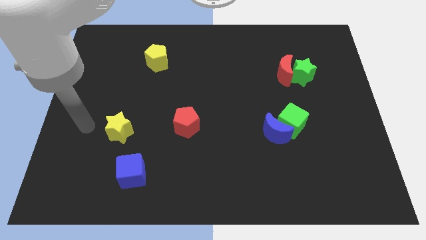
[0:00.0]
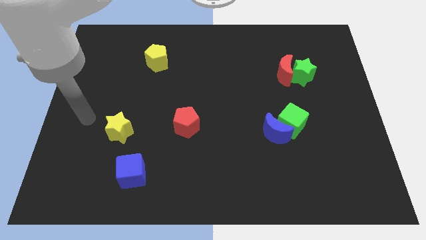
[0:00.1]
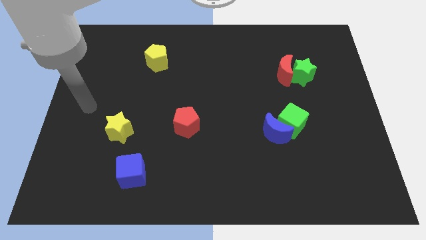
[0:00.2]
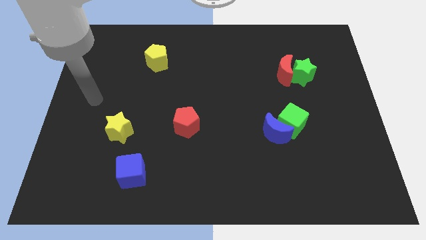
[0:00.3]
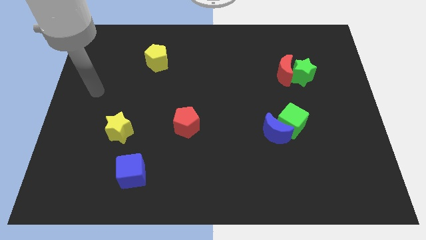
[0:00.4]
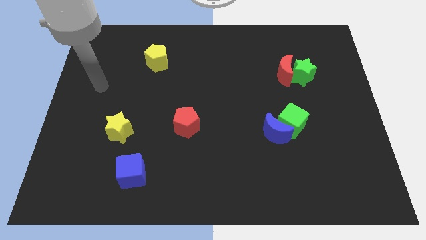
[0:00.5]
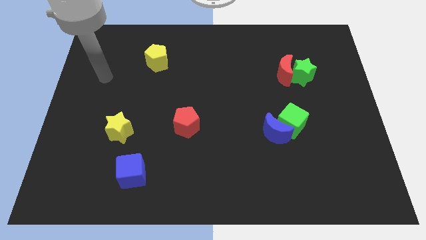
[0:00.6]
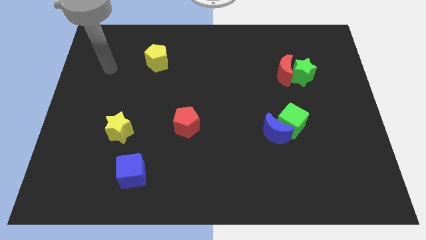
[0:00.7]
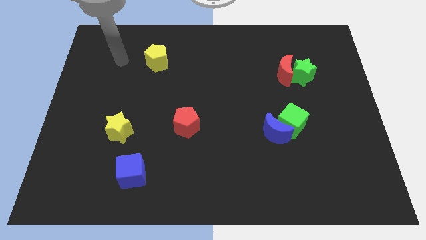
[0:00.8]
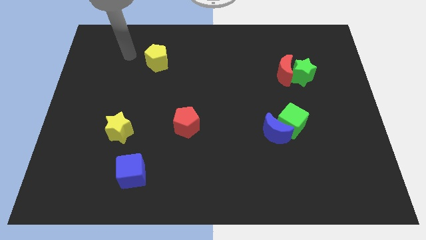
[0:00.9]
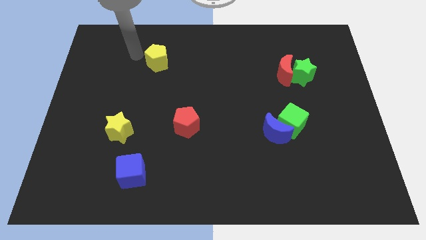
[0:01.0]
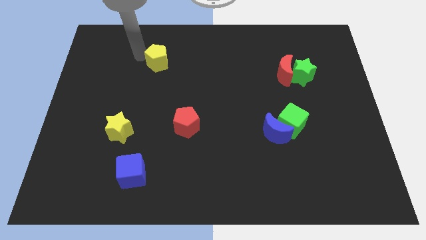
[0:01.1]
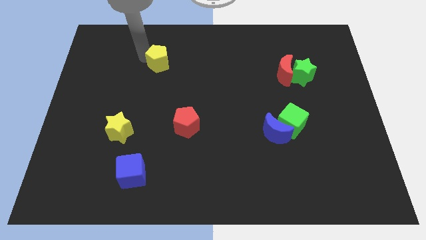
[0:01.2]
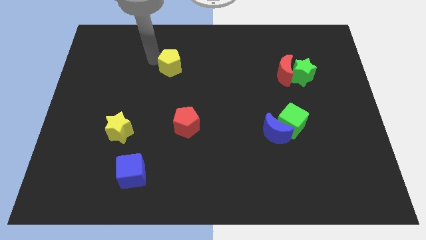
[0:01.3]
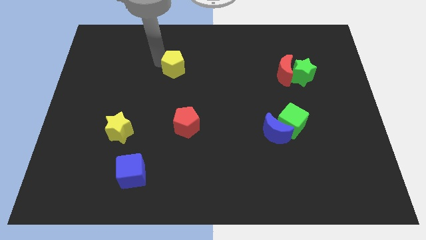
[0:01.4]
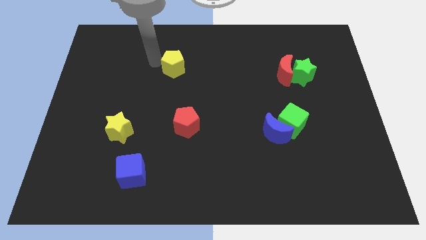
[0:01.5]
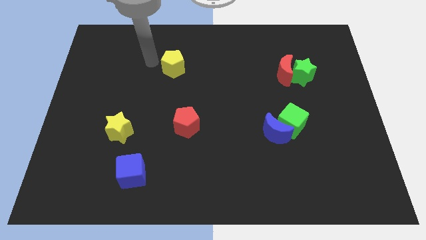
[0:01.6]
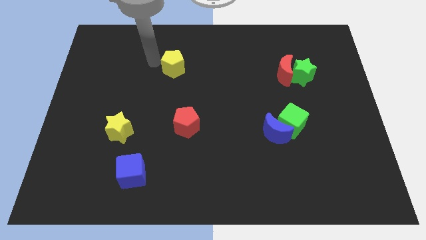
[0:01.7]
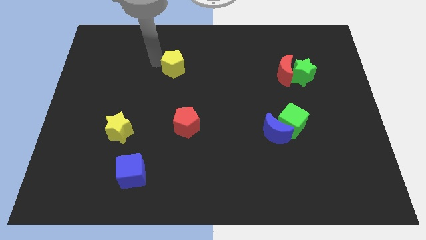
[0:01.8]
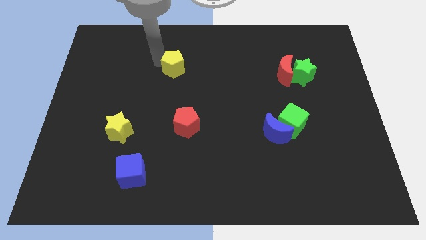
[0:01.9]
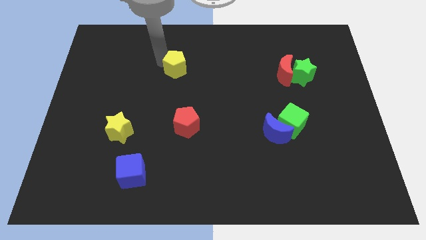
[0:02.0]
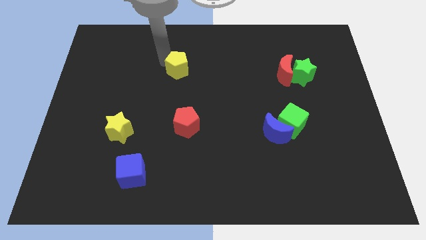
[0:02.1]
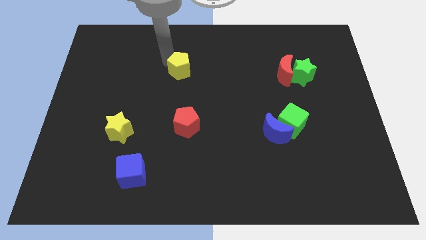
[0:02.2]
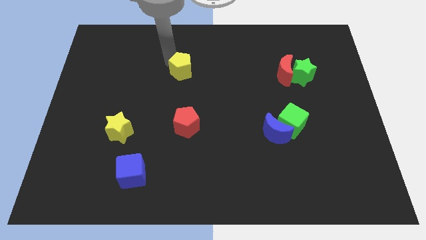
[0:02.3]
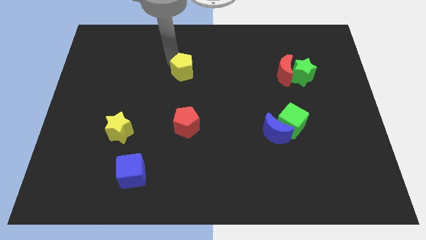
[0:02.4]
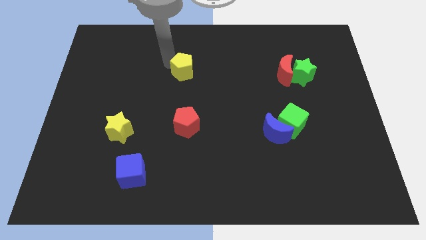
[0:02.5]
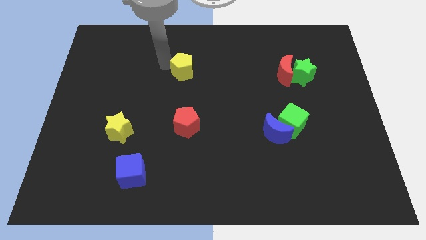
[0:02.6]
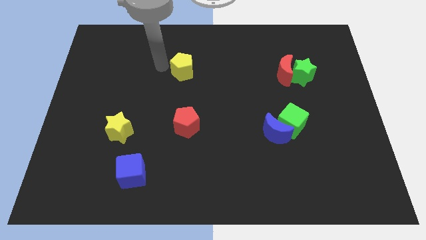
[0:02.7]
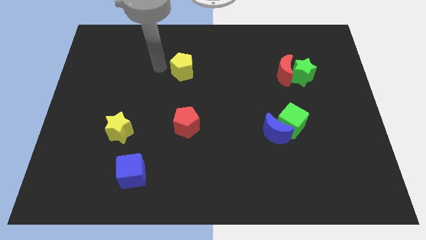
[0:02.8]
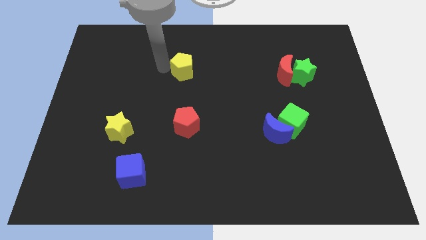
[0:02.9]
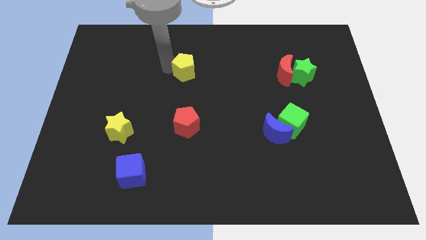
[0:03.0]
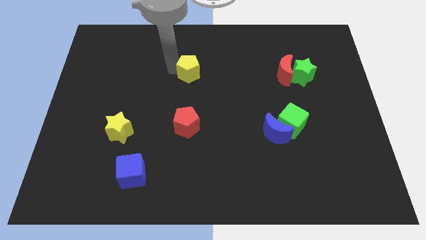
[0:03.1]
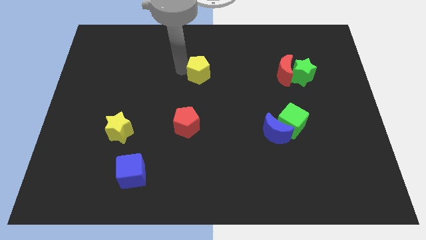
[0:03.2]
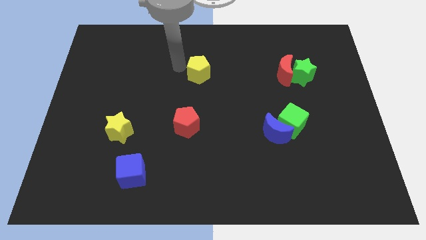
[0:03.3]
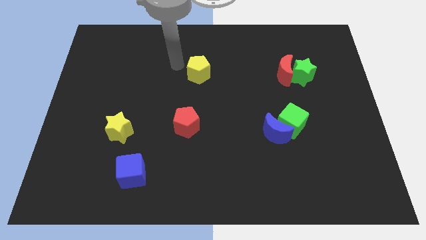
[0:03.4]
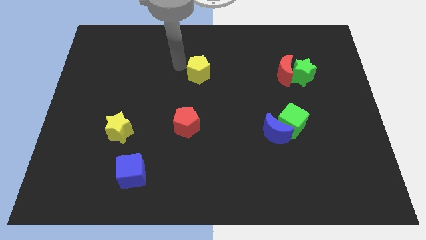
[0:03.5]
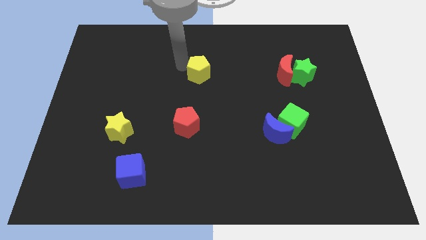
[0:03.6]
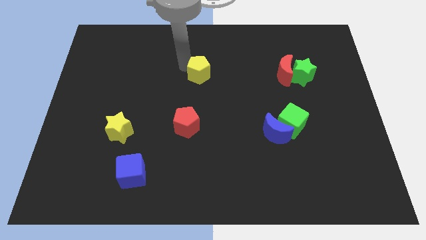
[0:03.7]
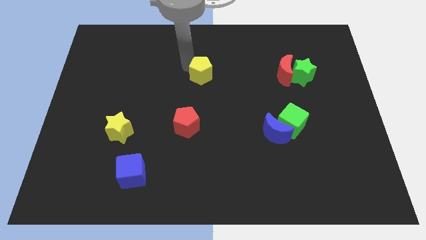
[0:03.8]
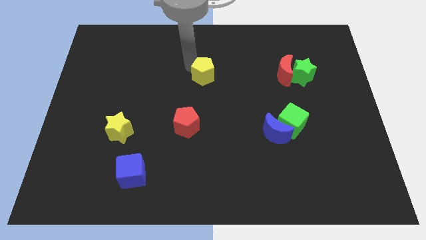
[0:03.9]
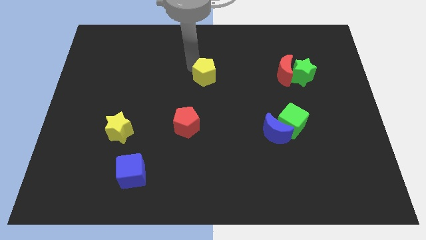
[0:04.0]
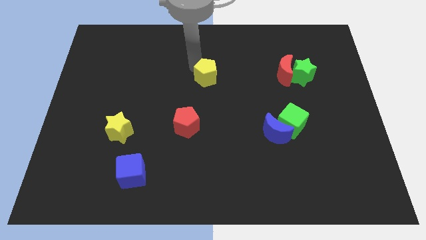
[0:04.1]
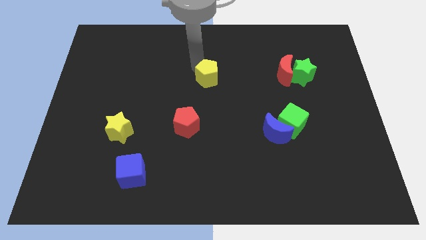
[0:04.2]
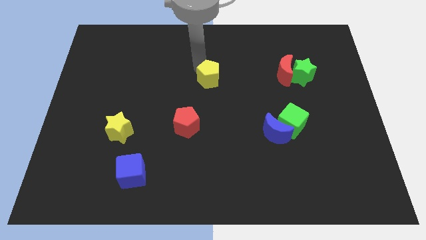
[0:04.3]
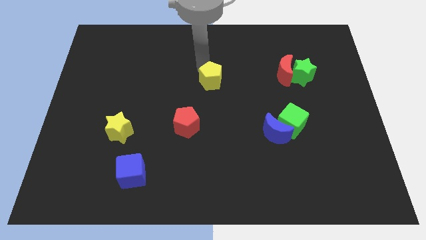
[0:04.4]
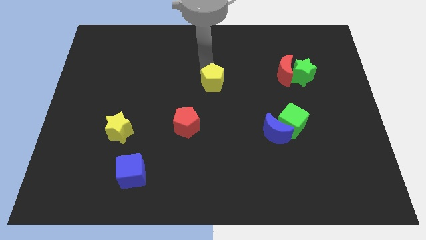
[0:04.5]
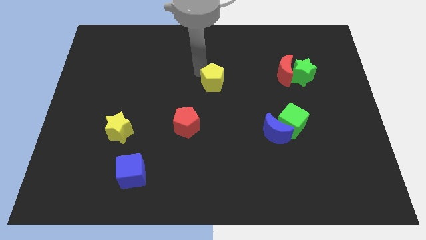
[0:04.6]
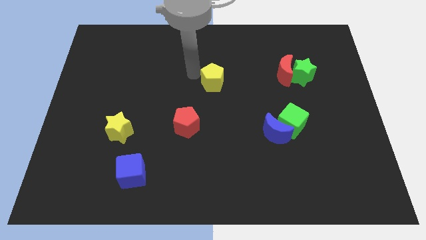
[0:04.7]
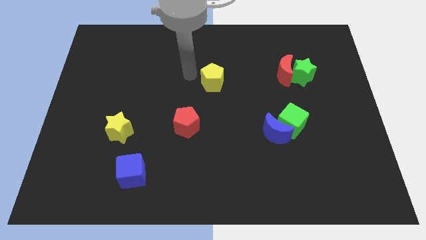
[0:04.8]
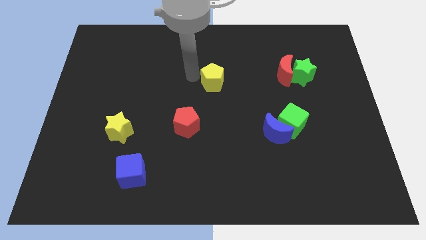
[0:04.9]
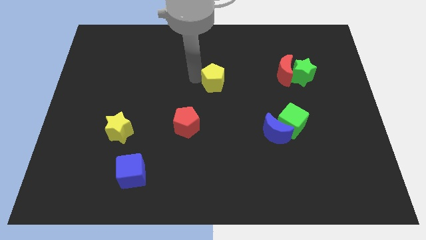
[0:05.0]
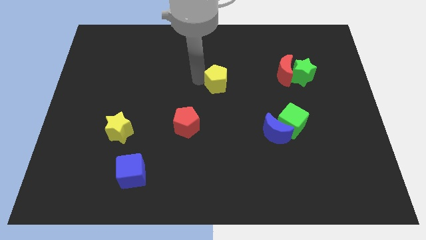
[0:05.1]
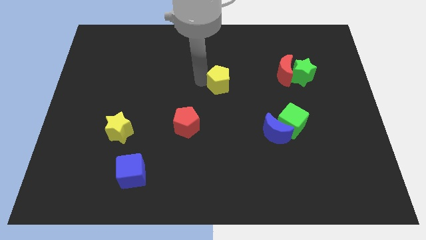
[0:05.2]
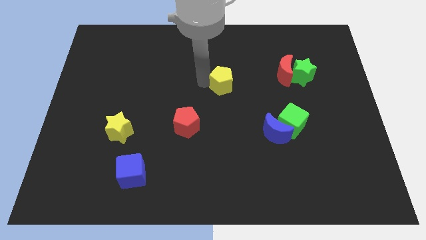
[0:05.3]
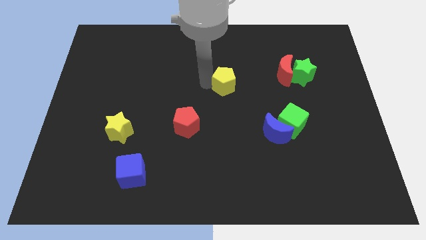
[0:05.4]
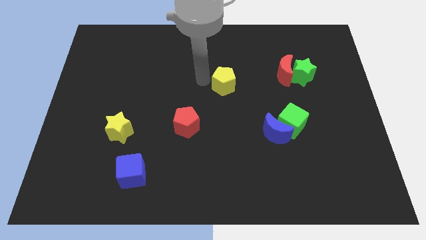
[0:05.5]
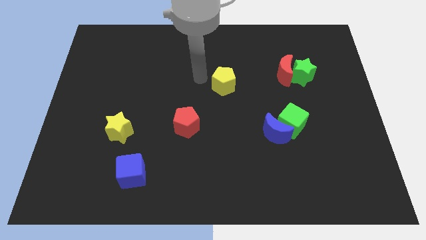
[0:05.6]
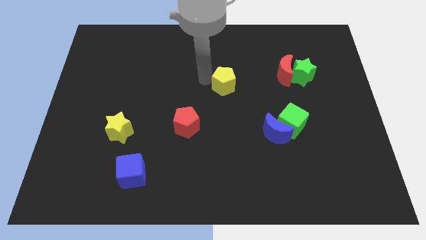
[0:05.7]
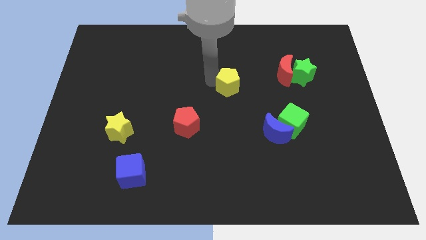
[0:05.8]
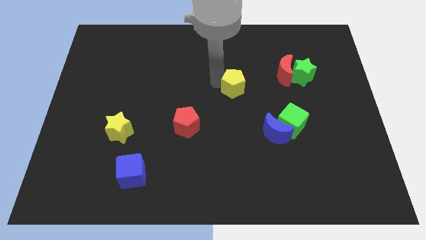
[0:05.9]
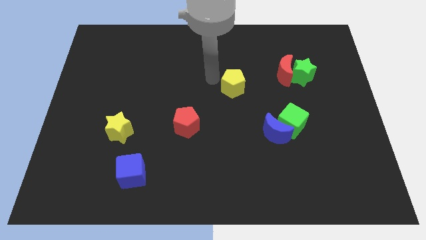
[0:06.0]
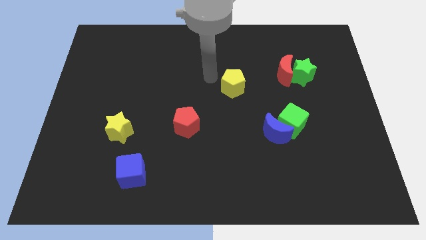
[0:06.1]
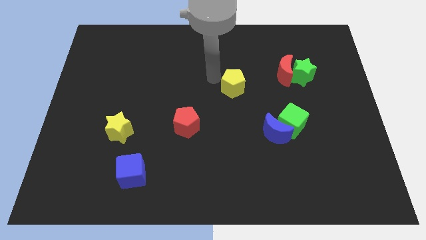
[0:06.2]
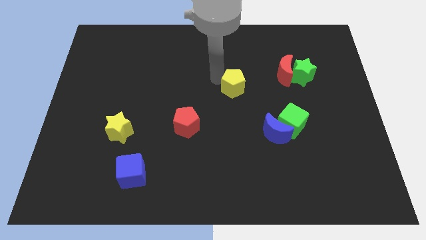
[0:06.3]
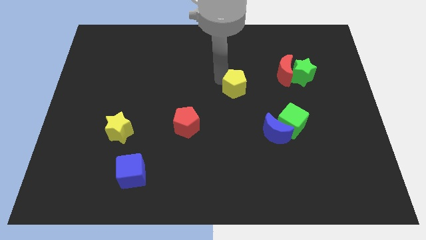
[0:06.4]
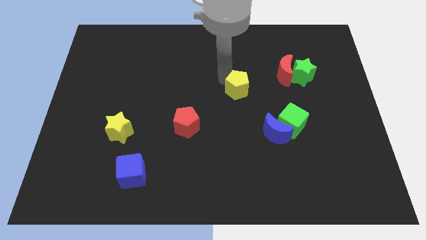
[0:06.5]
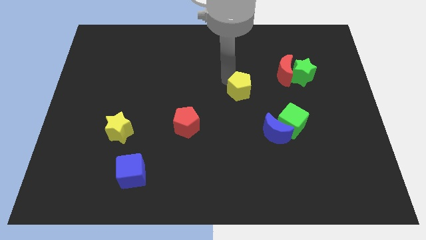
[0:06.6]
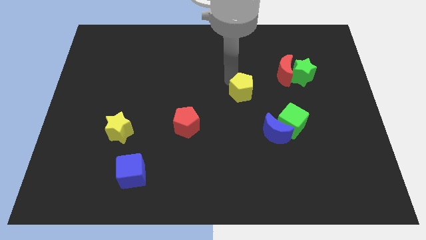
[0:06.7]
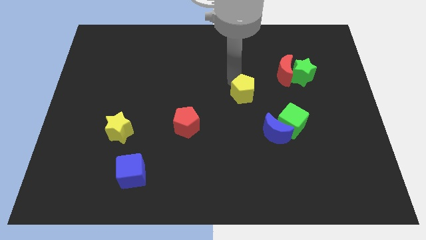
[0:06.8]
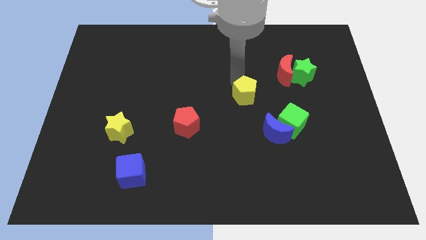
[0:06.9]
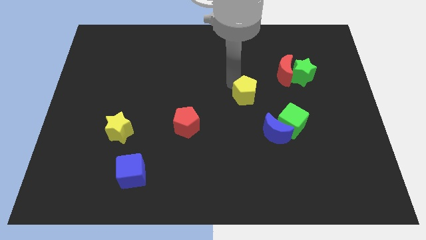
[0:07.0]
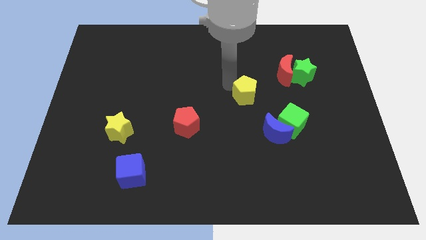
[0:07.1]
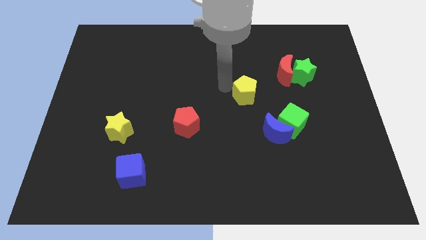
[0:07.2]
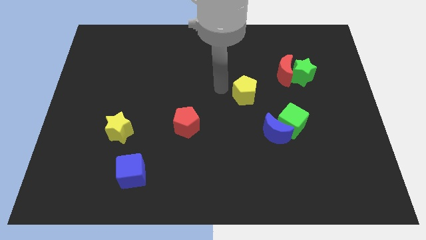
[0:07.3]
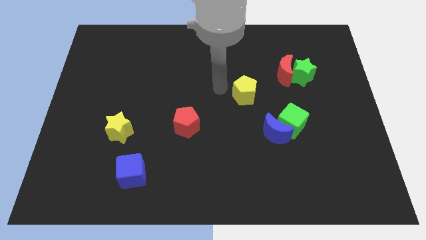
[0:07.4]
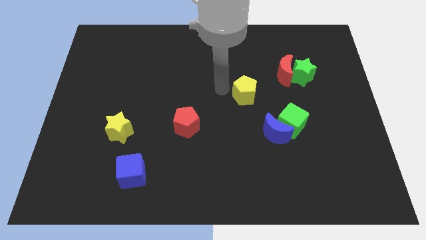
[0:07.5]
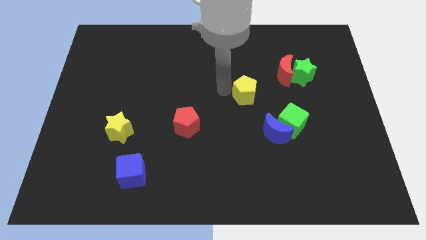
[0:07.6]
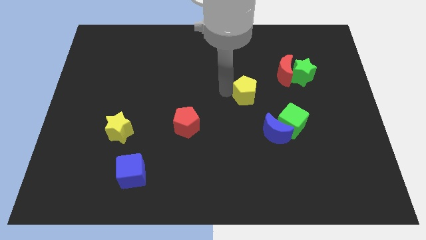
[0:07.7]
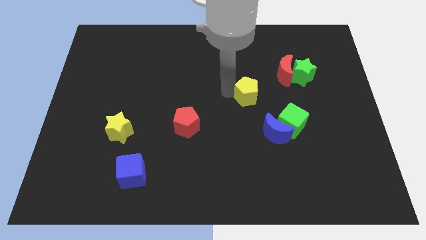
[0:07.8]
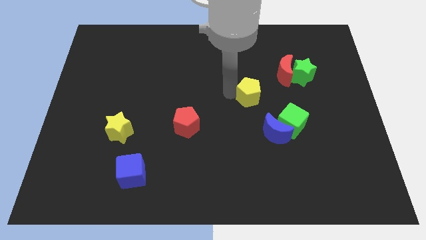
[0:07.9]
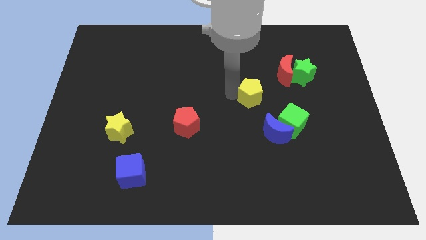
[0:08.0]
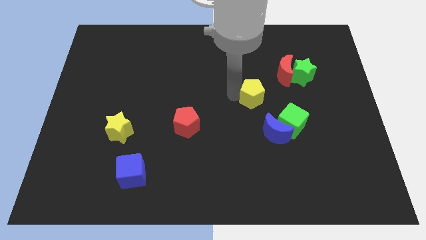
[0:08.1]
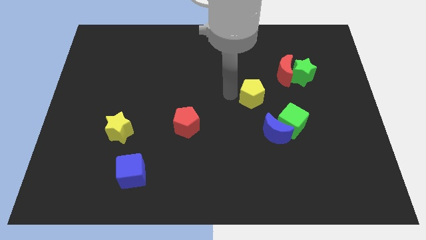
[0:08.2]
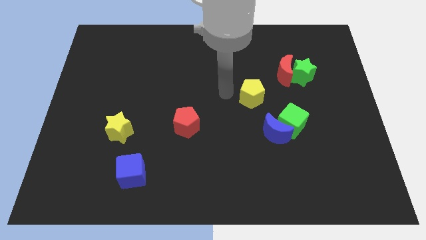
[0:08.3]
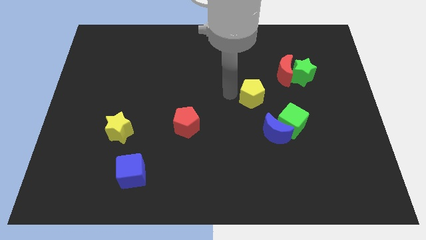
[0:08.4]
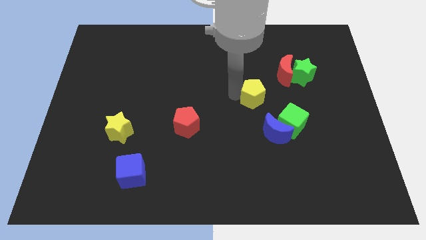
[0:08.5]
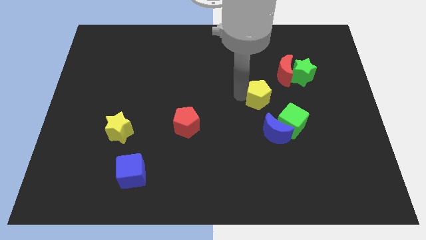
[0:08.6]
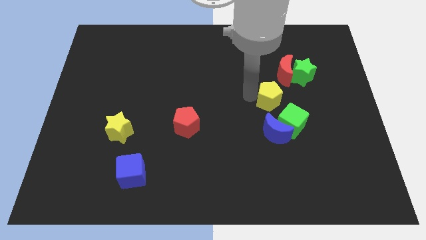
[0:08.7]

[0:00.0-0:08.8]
move the yellow pentagon below the red moon
